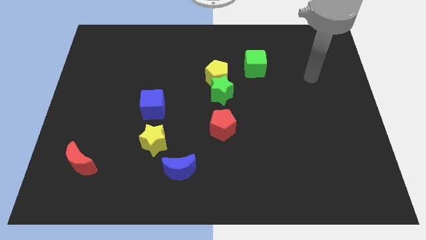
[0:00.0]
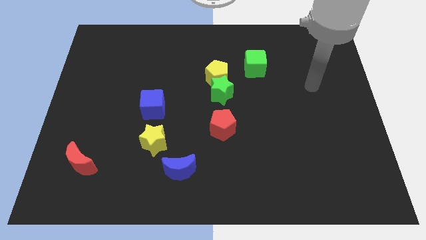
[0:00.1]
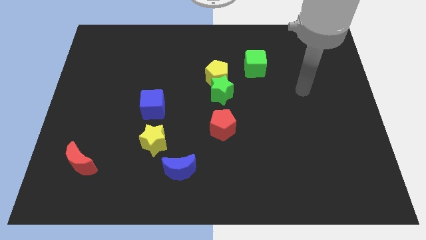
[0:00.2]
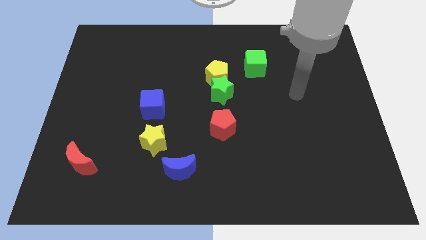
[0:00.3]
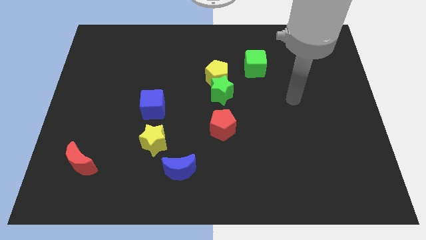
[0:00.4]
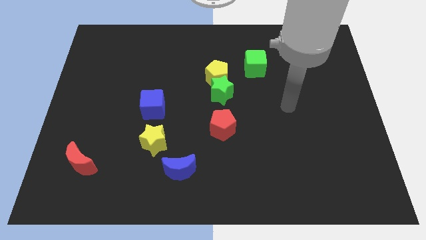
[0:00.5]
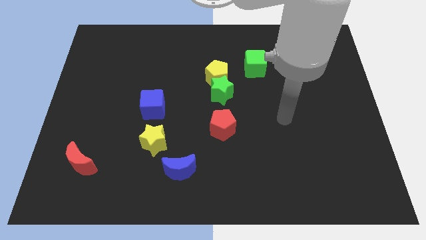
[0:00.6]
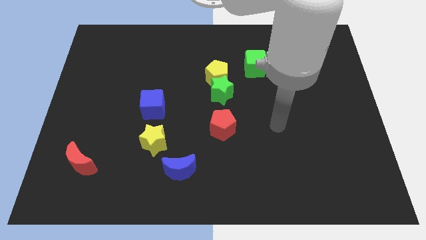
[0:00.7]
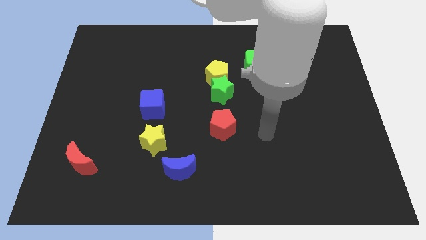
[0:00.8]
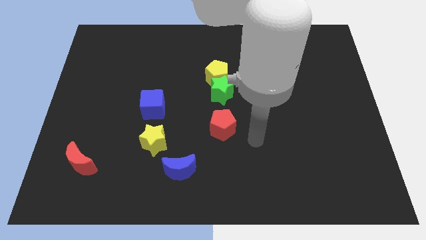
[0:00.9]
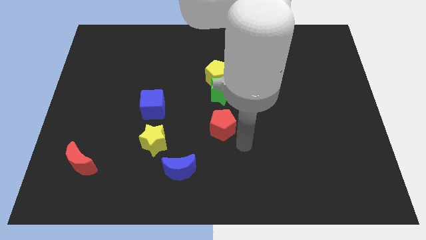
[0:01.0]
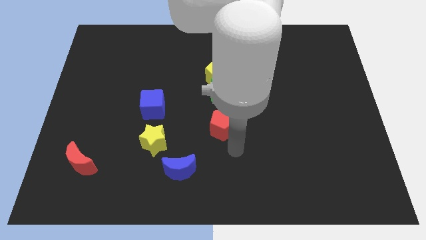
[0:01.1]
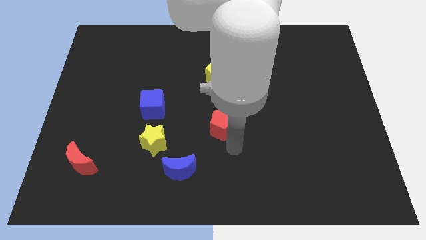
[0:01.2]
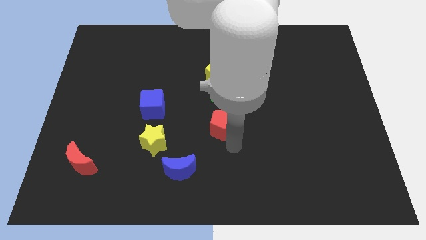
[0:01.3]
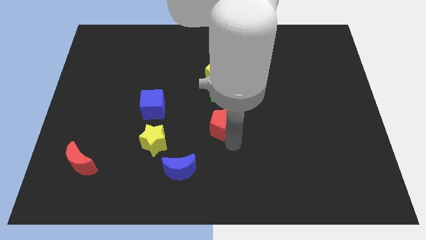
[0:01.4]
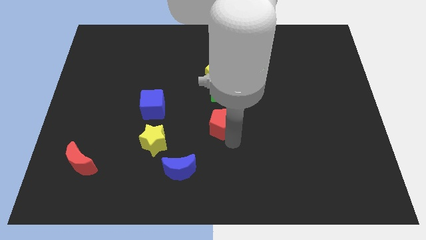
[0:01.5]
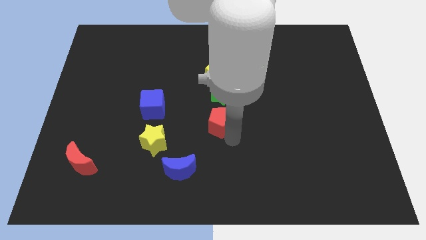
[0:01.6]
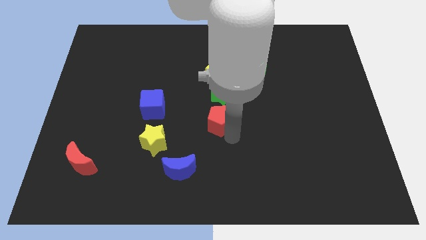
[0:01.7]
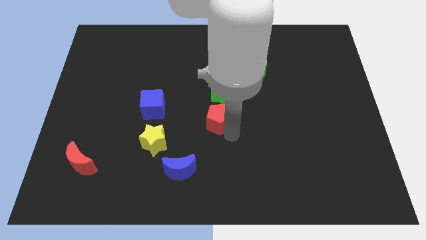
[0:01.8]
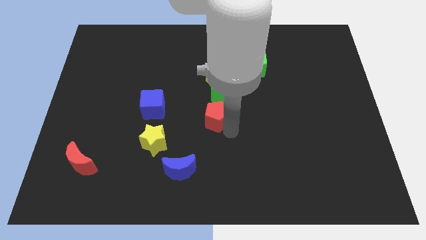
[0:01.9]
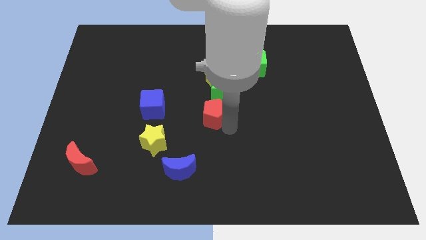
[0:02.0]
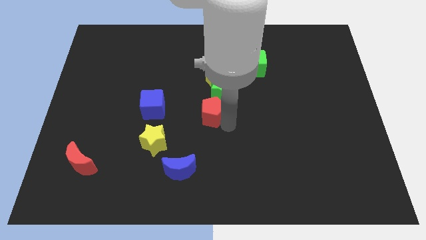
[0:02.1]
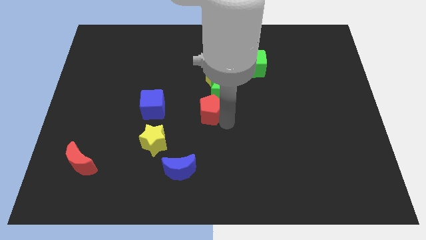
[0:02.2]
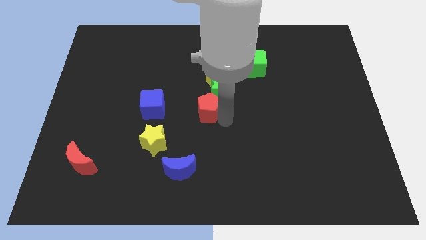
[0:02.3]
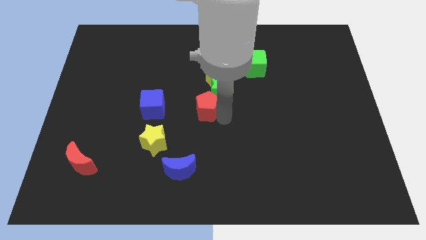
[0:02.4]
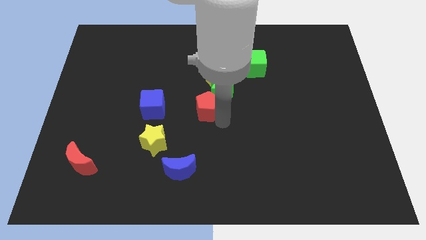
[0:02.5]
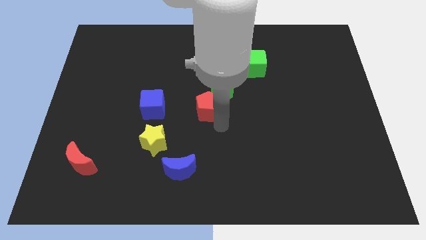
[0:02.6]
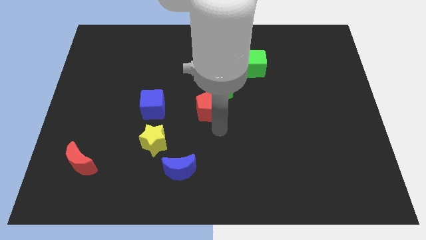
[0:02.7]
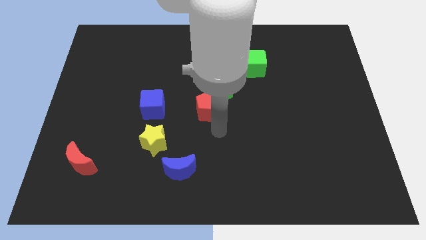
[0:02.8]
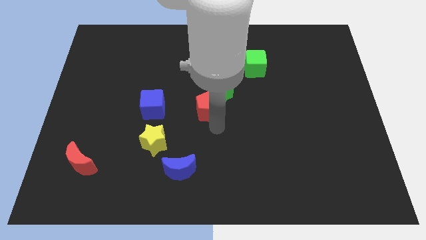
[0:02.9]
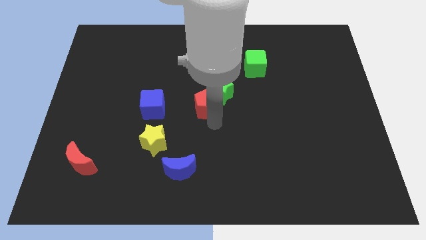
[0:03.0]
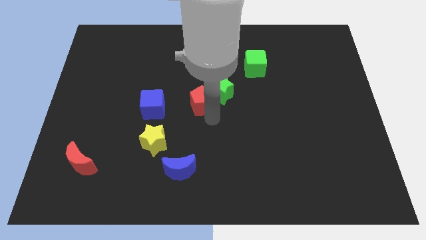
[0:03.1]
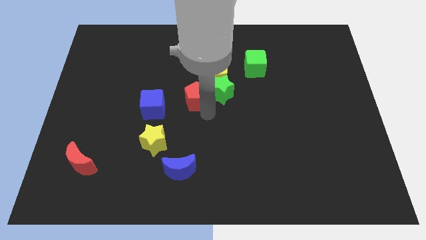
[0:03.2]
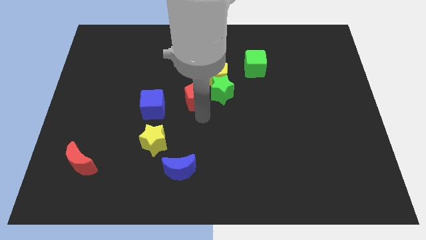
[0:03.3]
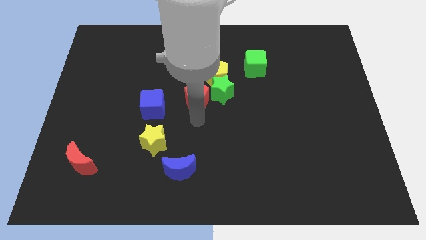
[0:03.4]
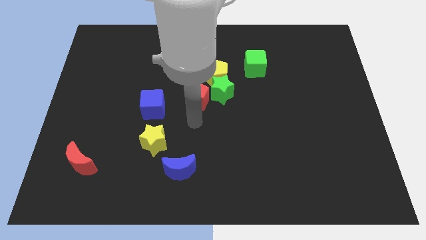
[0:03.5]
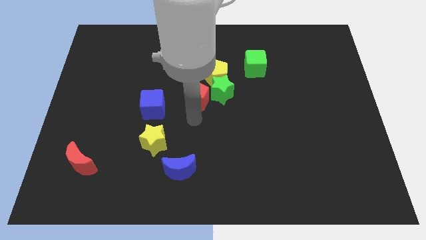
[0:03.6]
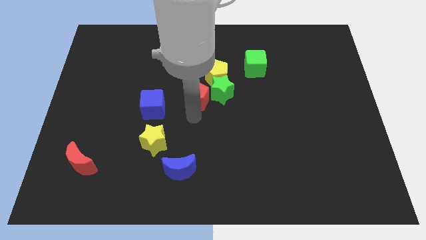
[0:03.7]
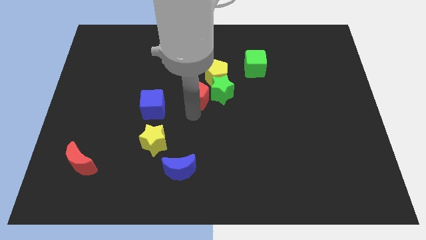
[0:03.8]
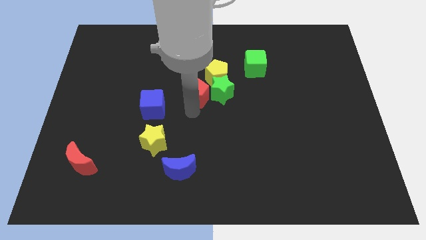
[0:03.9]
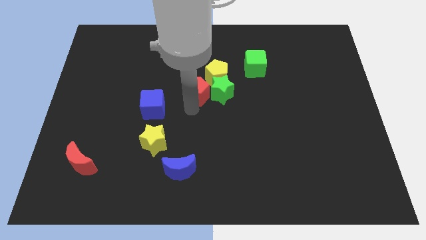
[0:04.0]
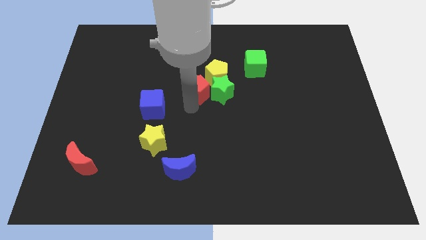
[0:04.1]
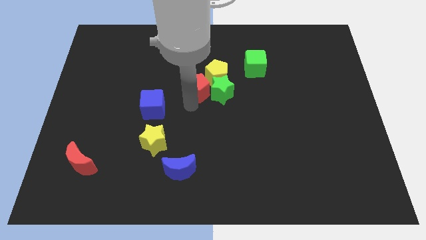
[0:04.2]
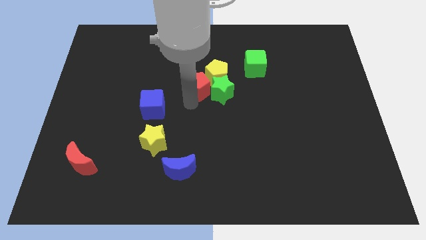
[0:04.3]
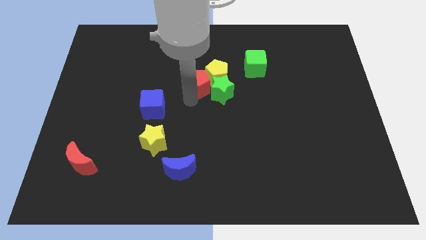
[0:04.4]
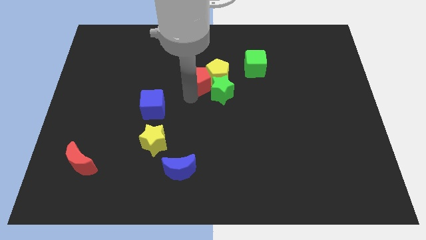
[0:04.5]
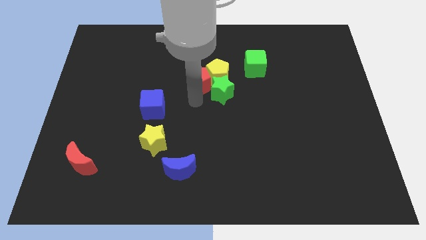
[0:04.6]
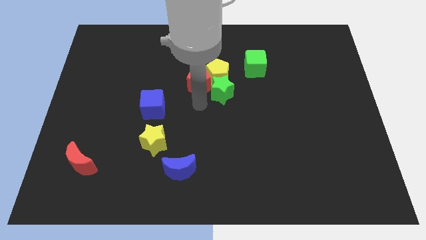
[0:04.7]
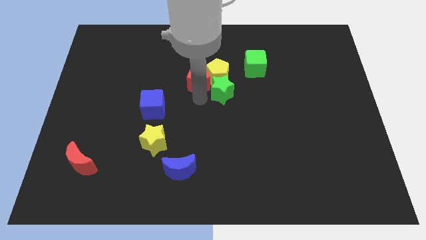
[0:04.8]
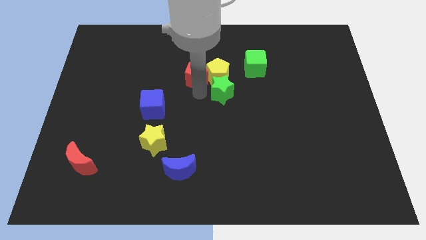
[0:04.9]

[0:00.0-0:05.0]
move the red pentagon to the top left side of the yellow pentagon

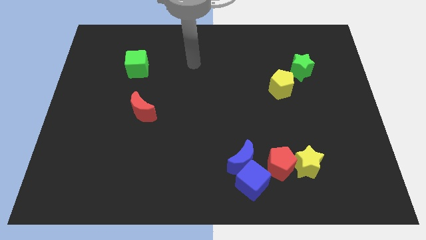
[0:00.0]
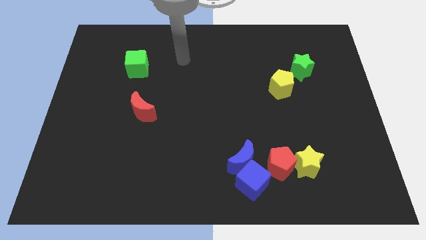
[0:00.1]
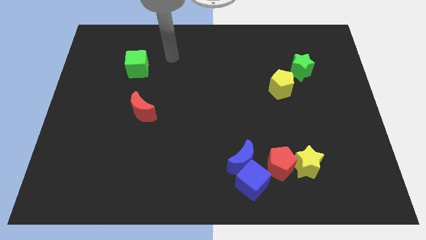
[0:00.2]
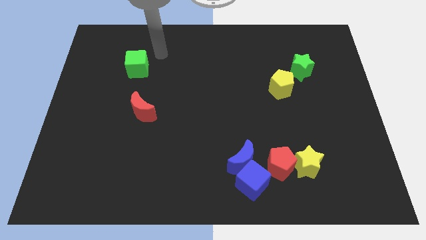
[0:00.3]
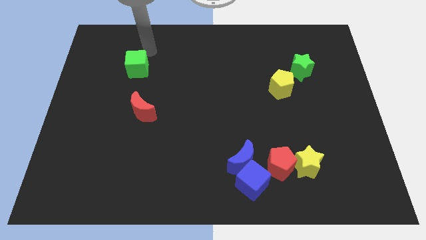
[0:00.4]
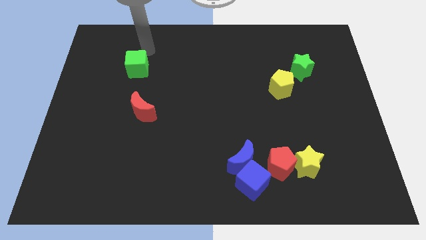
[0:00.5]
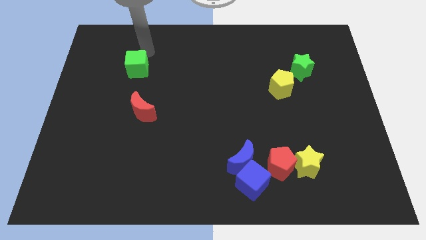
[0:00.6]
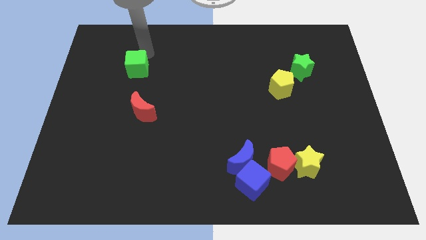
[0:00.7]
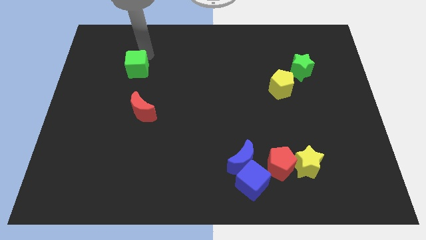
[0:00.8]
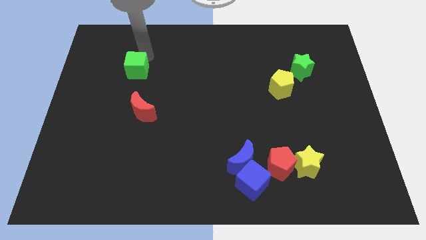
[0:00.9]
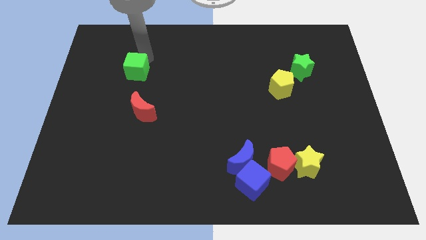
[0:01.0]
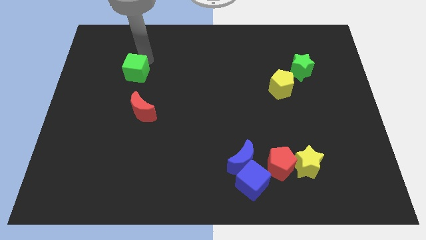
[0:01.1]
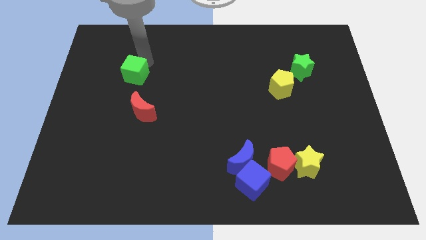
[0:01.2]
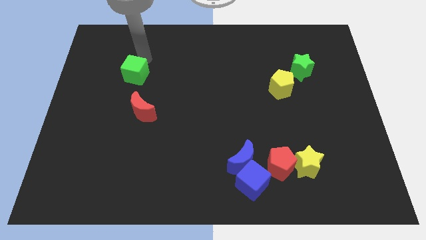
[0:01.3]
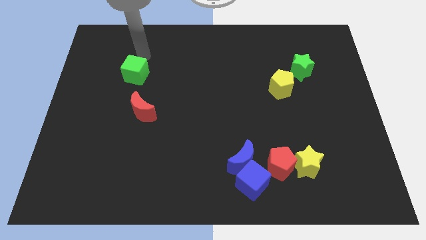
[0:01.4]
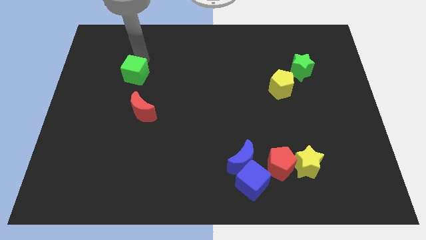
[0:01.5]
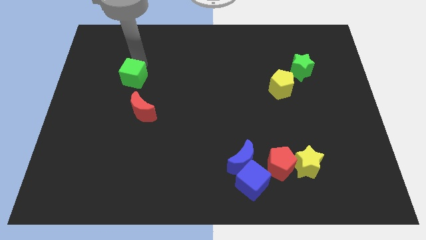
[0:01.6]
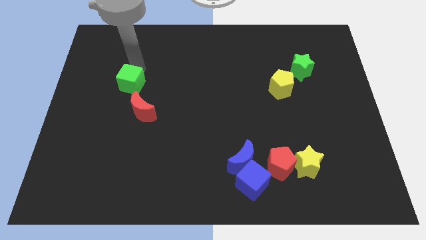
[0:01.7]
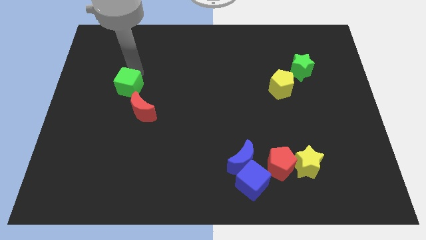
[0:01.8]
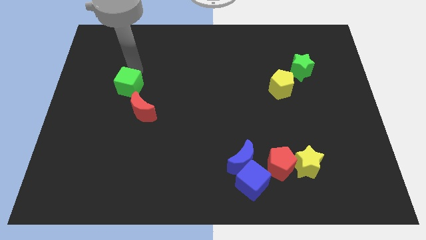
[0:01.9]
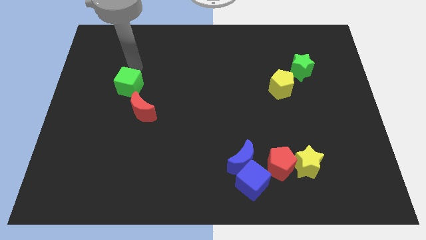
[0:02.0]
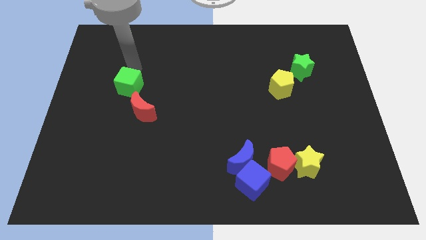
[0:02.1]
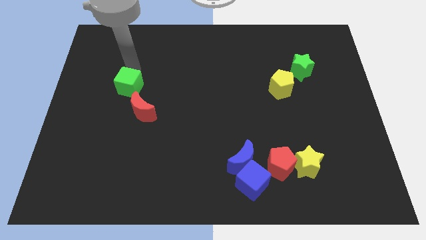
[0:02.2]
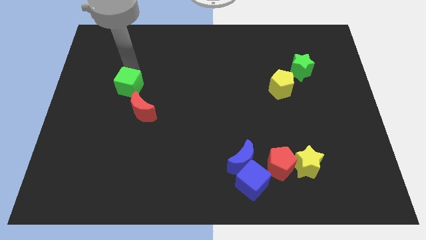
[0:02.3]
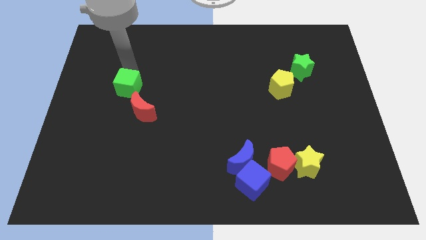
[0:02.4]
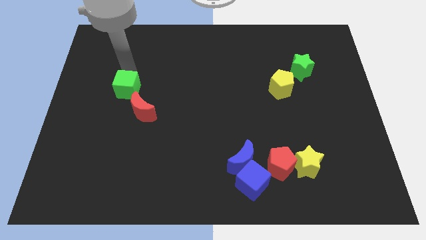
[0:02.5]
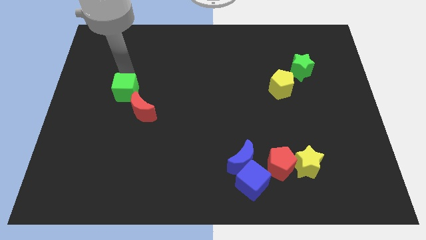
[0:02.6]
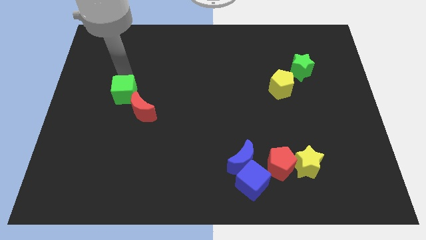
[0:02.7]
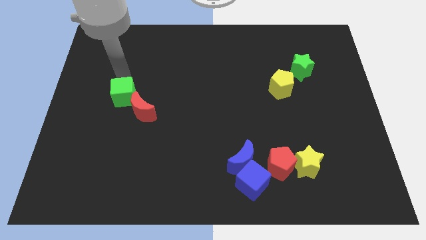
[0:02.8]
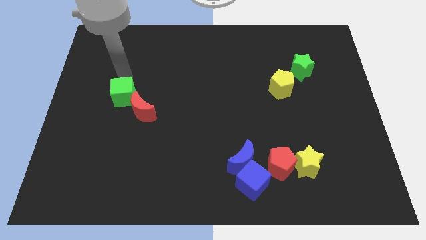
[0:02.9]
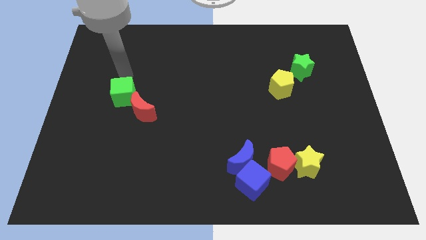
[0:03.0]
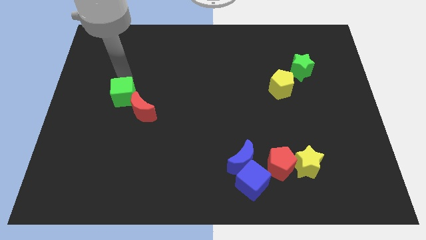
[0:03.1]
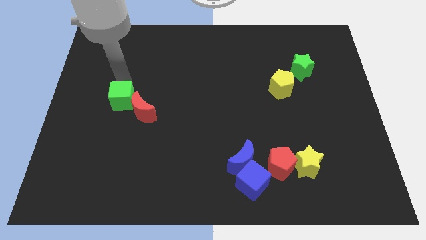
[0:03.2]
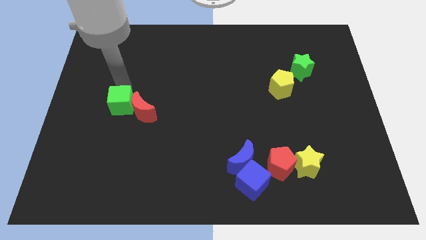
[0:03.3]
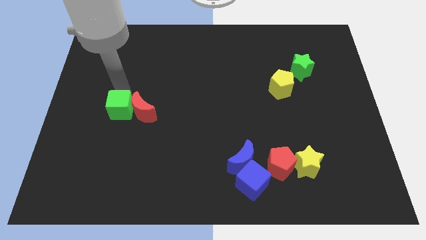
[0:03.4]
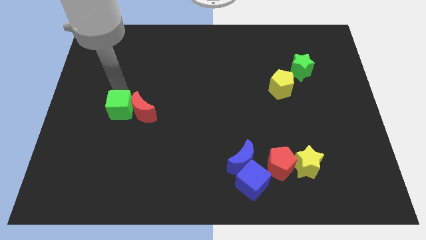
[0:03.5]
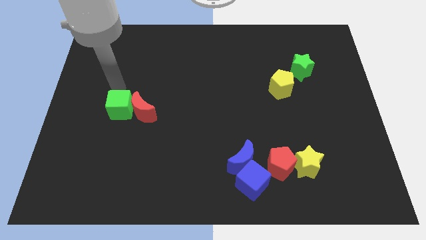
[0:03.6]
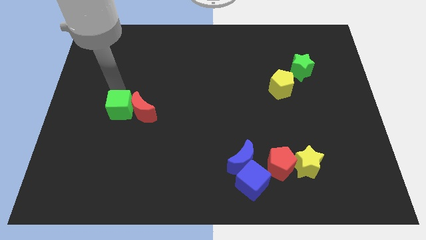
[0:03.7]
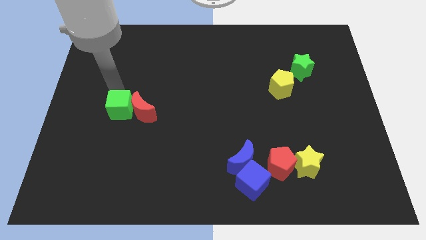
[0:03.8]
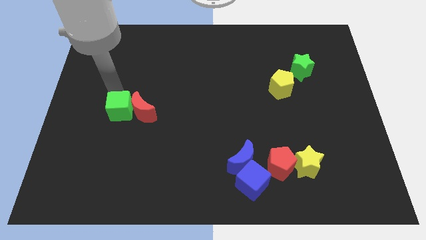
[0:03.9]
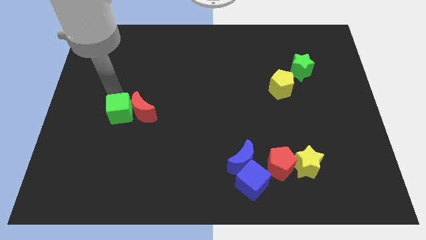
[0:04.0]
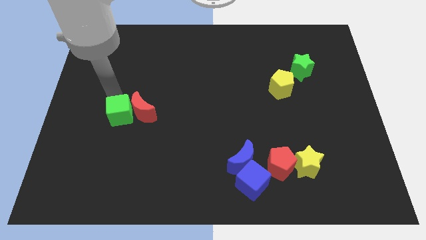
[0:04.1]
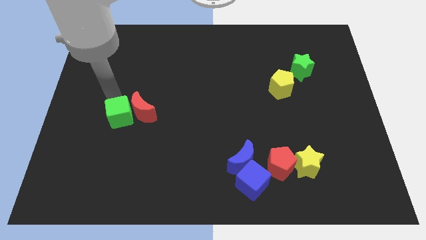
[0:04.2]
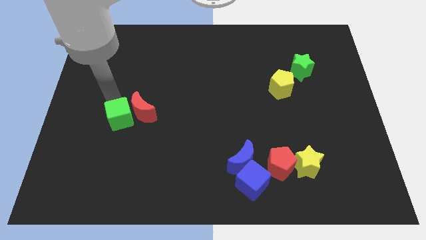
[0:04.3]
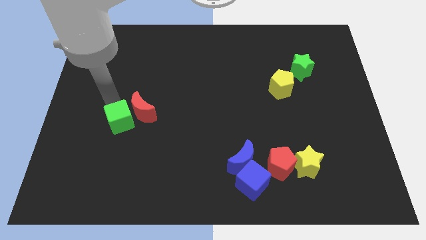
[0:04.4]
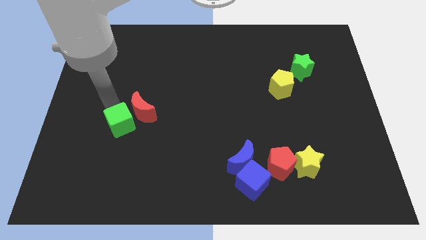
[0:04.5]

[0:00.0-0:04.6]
move the green cube below the red moon
